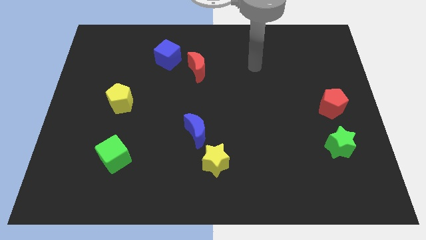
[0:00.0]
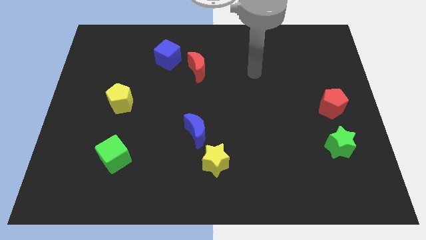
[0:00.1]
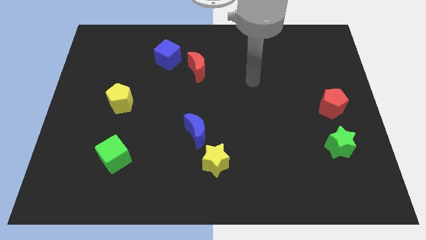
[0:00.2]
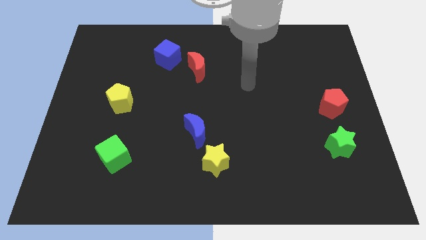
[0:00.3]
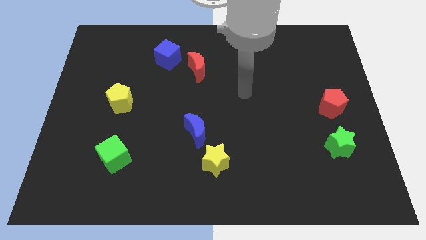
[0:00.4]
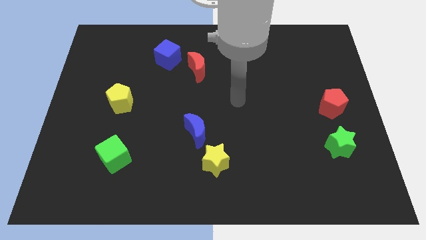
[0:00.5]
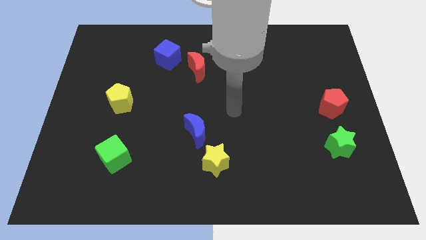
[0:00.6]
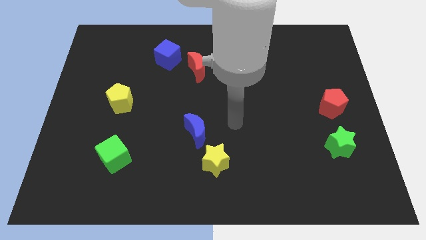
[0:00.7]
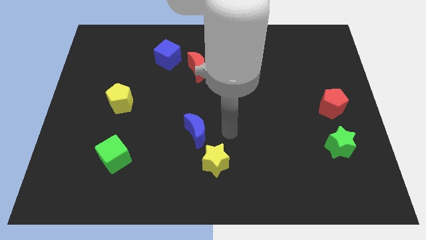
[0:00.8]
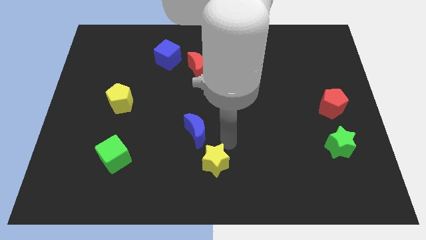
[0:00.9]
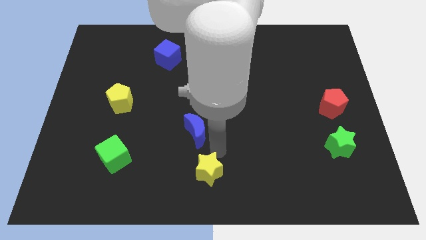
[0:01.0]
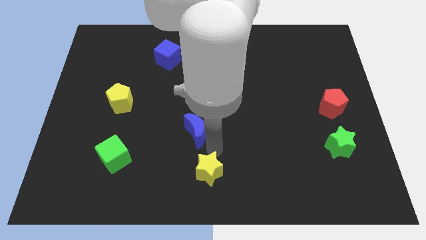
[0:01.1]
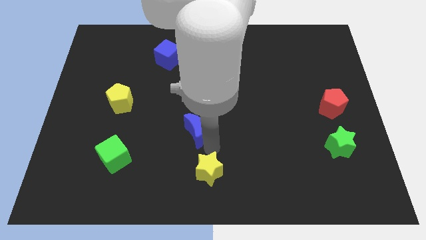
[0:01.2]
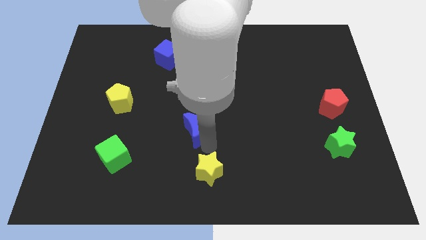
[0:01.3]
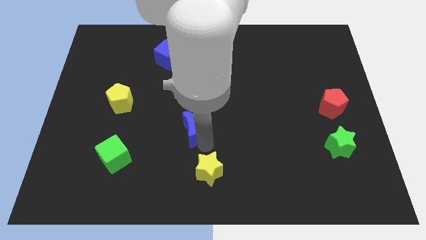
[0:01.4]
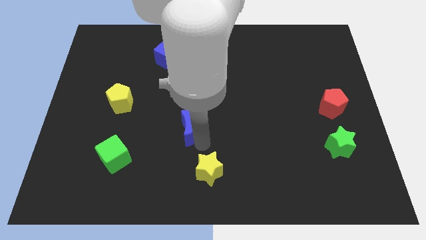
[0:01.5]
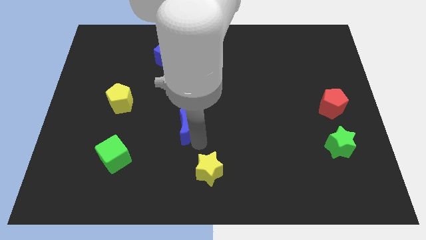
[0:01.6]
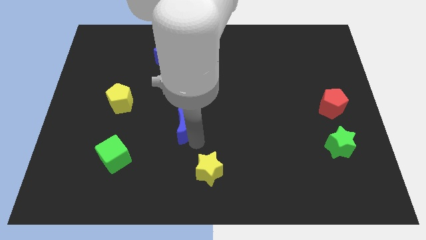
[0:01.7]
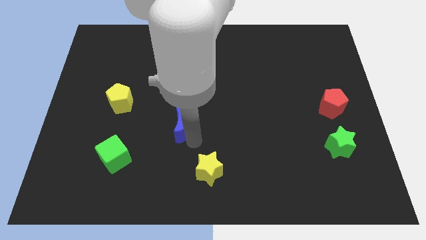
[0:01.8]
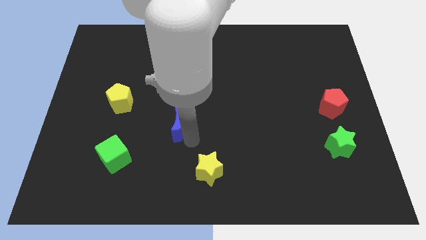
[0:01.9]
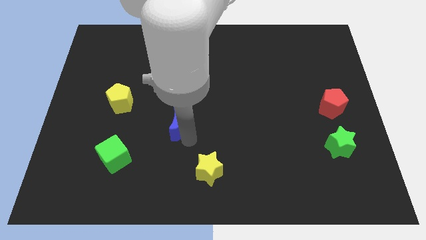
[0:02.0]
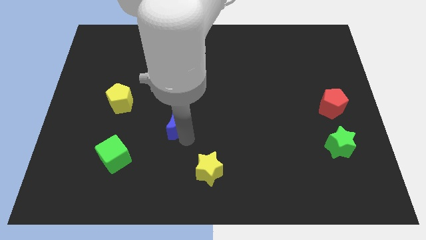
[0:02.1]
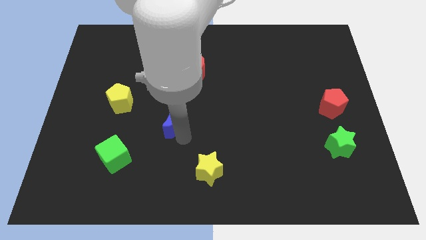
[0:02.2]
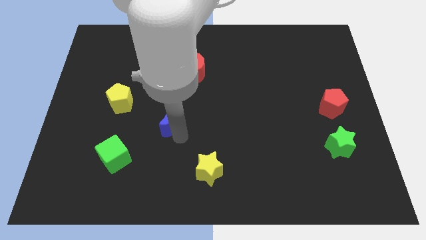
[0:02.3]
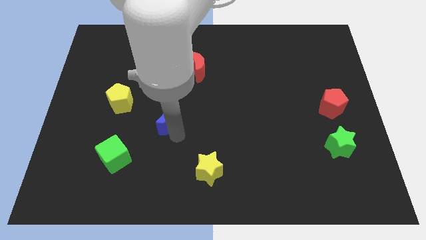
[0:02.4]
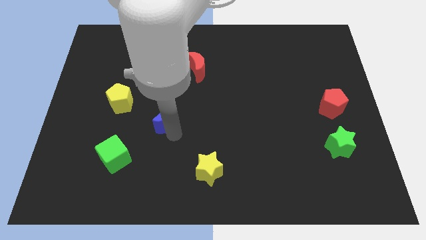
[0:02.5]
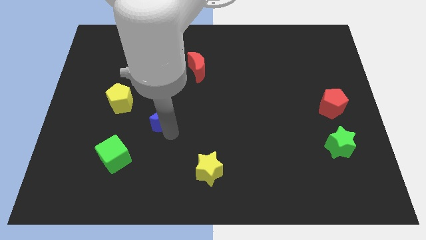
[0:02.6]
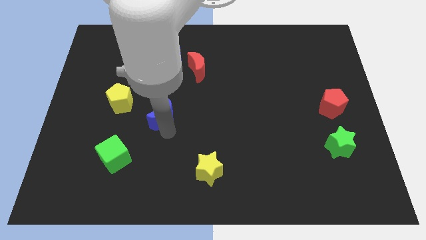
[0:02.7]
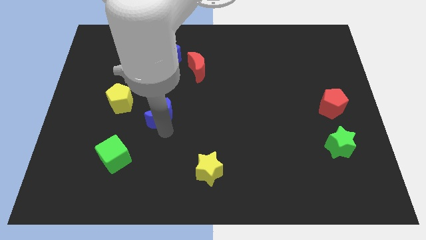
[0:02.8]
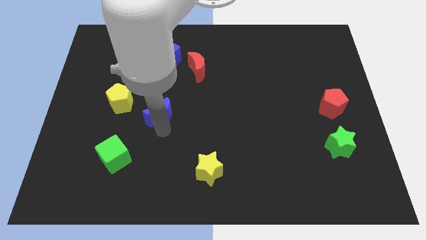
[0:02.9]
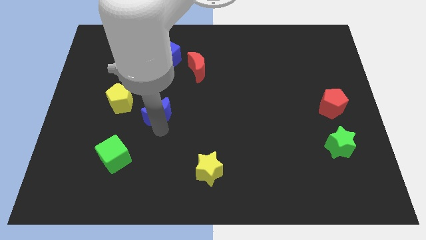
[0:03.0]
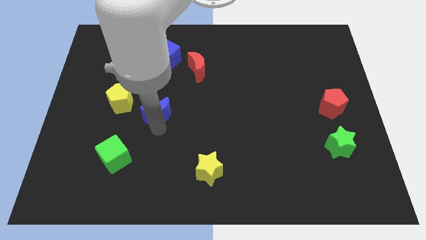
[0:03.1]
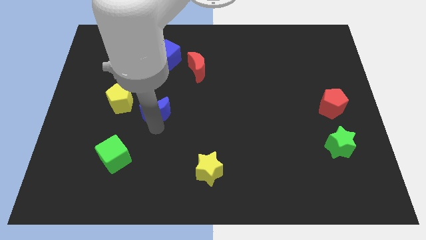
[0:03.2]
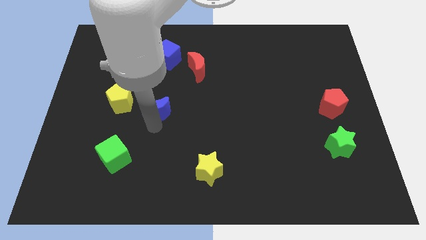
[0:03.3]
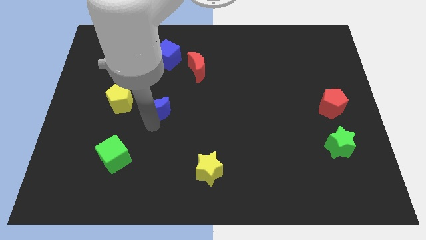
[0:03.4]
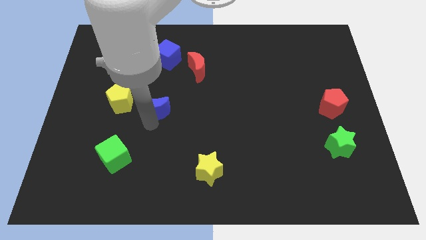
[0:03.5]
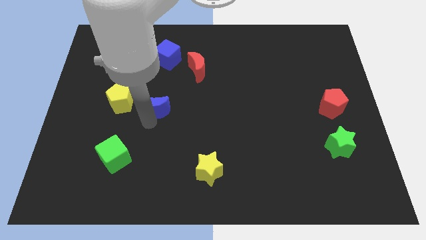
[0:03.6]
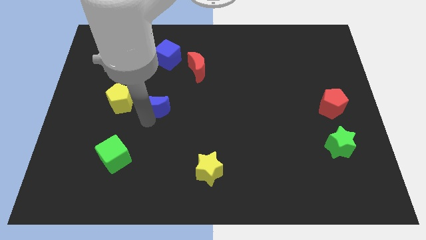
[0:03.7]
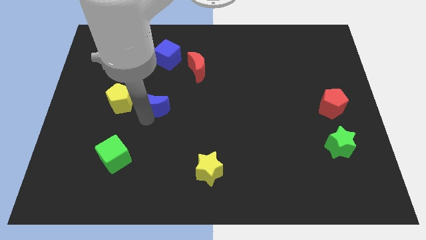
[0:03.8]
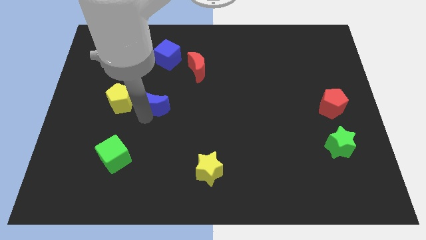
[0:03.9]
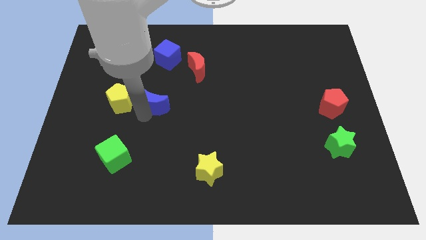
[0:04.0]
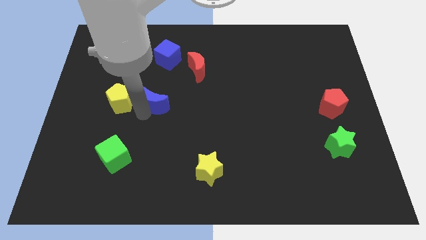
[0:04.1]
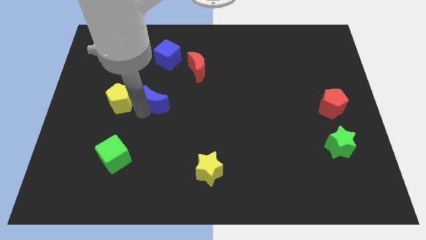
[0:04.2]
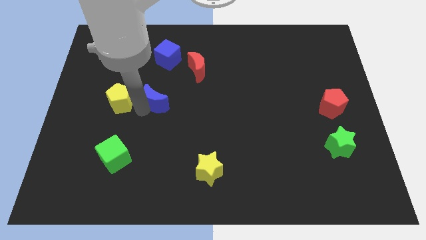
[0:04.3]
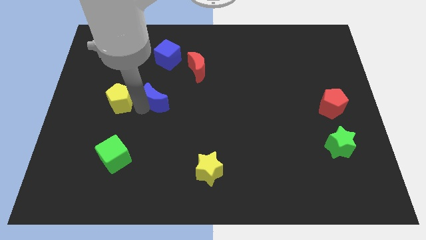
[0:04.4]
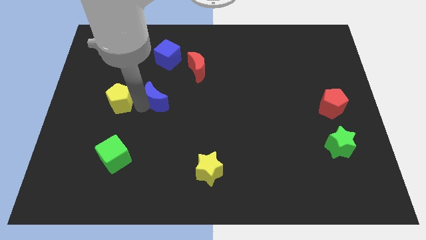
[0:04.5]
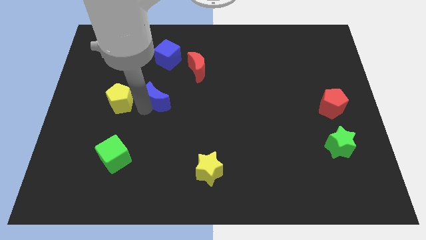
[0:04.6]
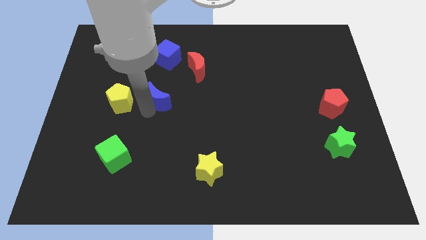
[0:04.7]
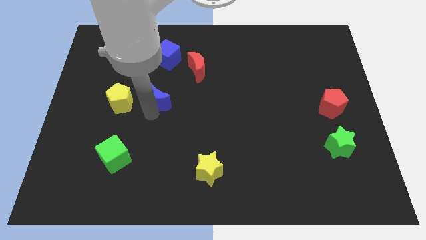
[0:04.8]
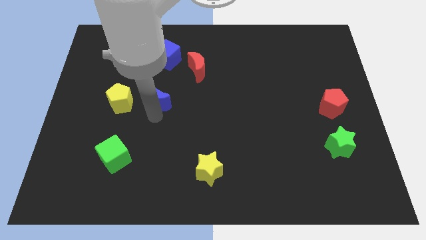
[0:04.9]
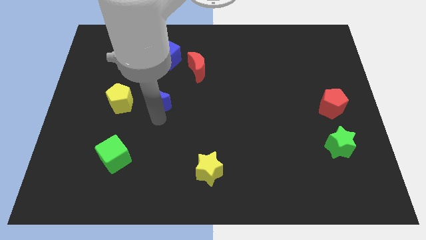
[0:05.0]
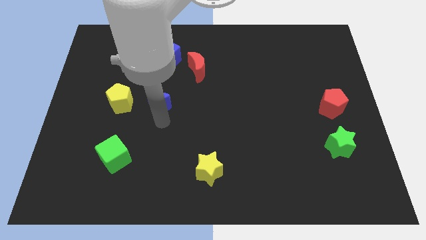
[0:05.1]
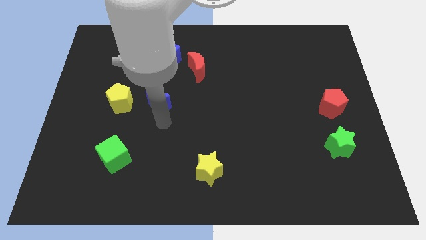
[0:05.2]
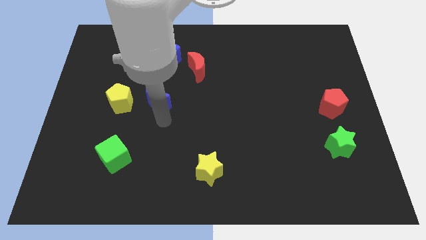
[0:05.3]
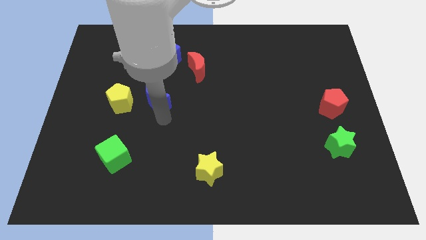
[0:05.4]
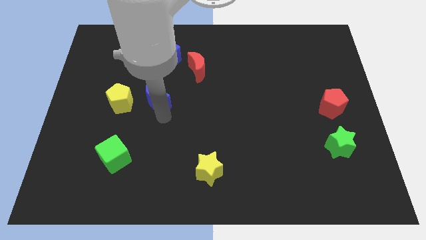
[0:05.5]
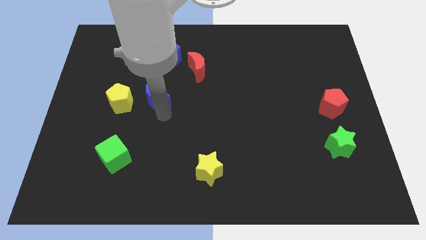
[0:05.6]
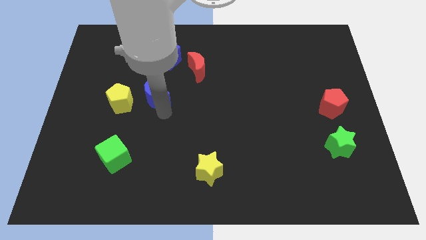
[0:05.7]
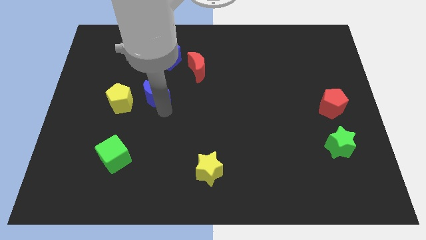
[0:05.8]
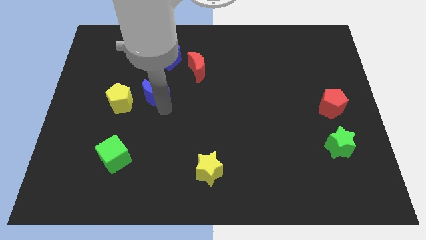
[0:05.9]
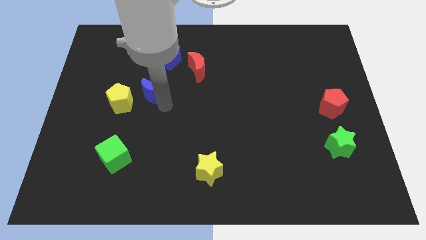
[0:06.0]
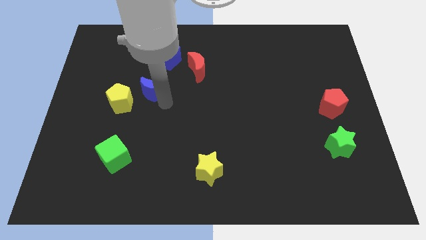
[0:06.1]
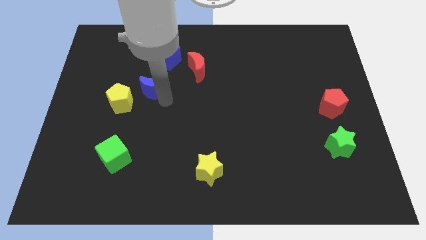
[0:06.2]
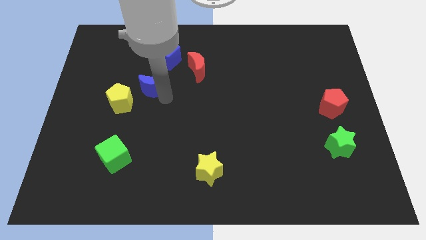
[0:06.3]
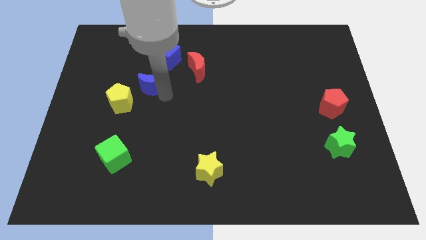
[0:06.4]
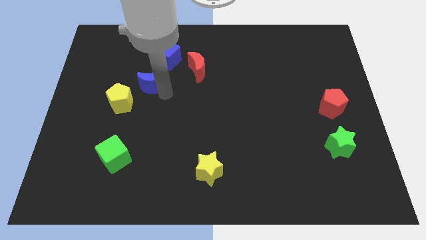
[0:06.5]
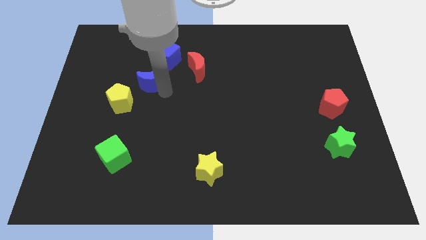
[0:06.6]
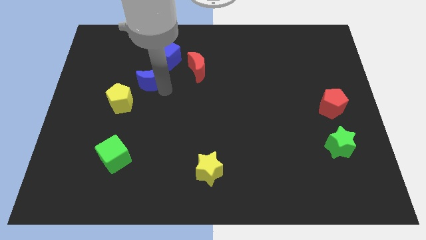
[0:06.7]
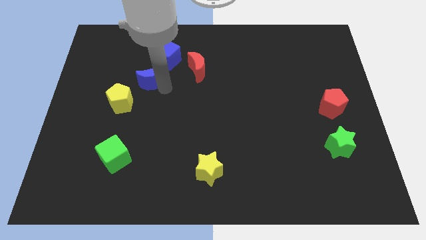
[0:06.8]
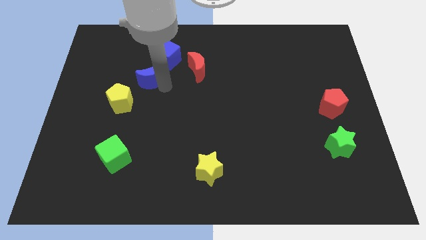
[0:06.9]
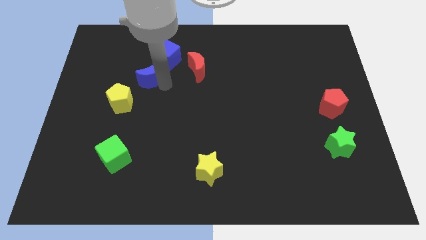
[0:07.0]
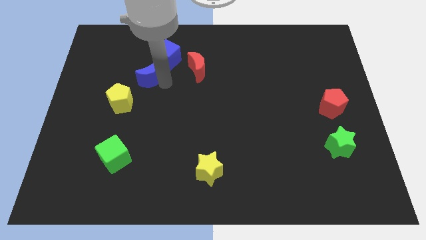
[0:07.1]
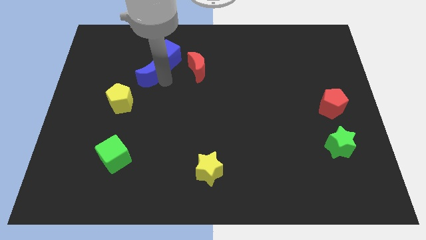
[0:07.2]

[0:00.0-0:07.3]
slide the blue moon up and then to the left

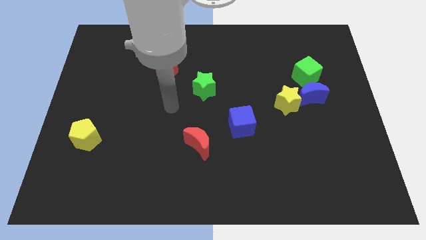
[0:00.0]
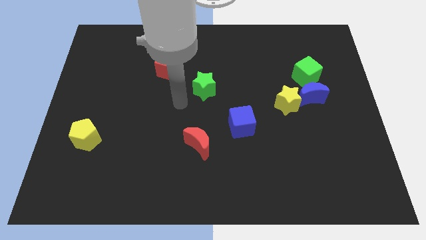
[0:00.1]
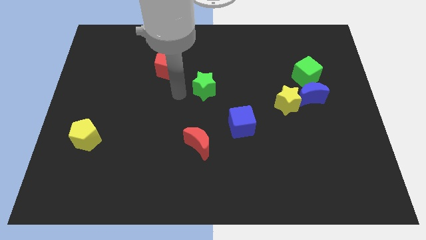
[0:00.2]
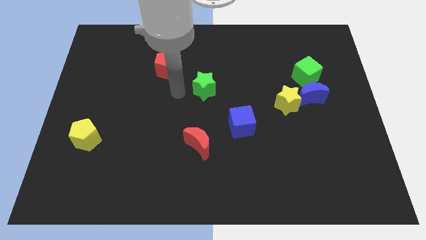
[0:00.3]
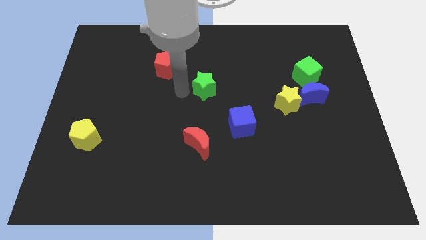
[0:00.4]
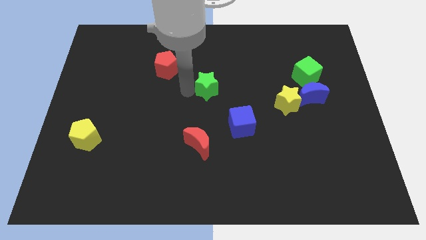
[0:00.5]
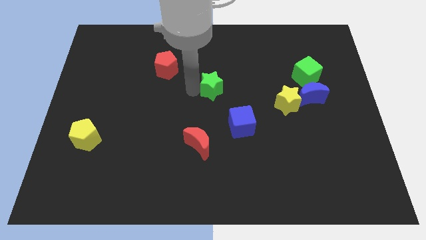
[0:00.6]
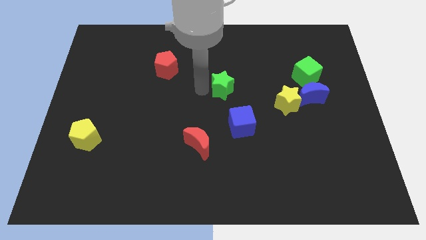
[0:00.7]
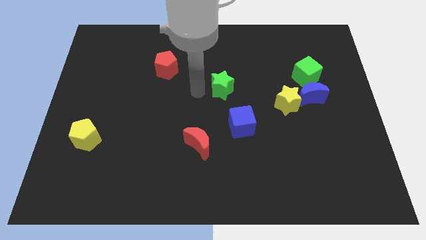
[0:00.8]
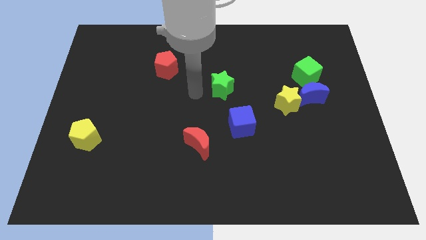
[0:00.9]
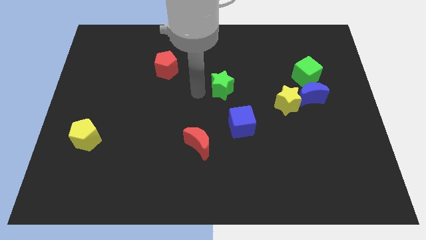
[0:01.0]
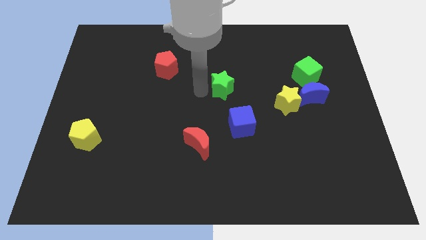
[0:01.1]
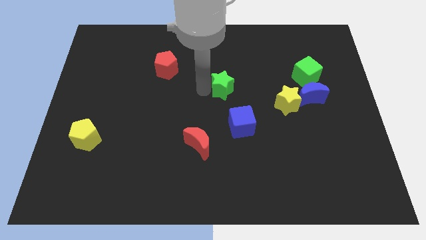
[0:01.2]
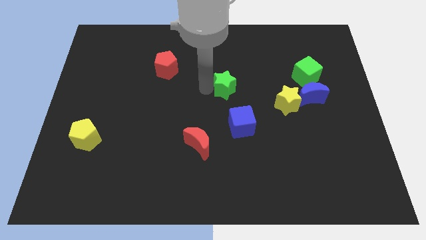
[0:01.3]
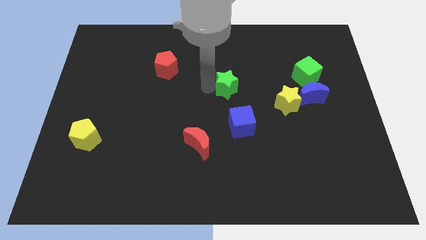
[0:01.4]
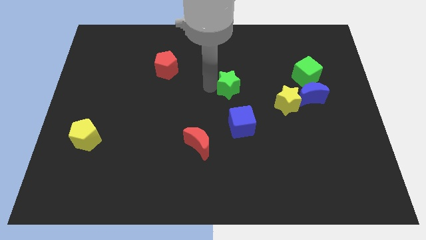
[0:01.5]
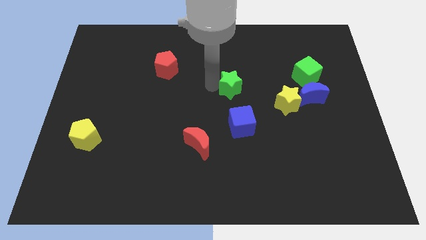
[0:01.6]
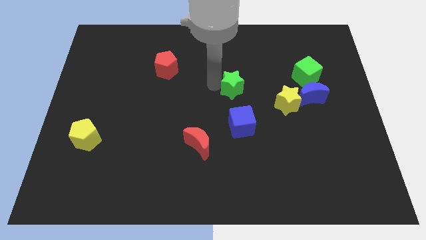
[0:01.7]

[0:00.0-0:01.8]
slightly slide the green star right
